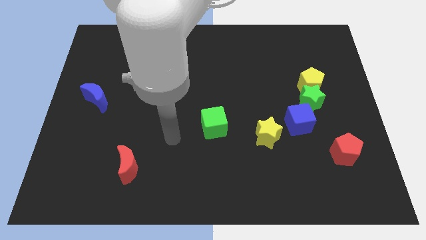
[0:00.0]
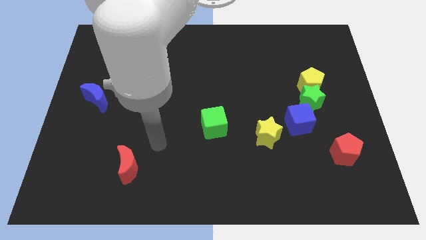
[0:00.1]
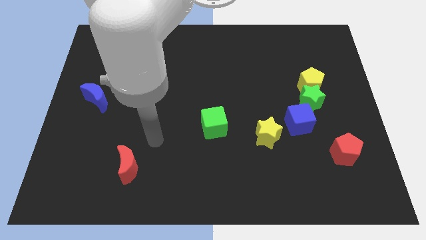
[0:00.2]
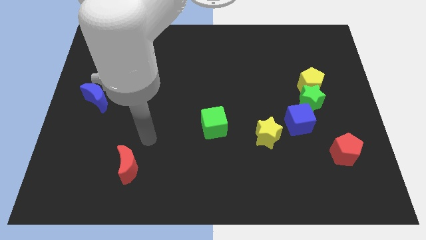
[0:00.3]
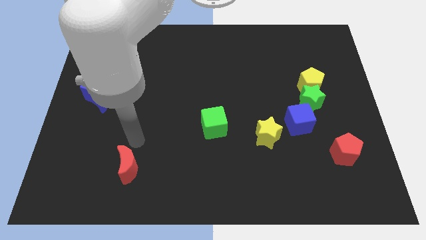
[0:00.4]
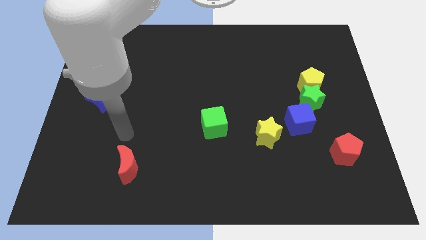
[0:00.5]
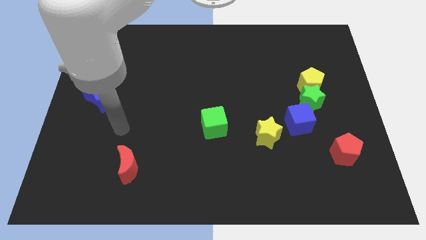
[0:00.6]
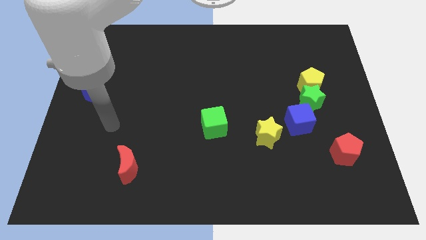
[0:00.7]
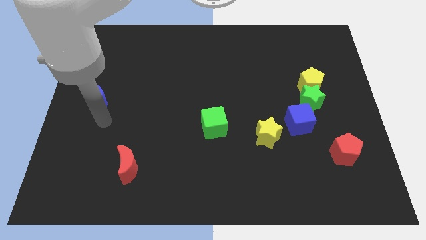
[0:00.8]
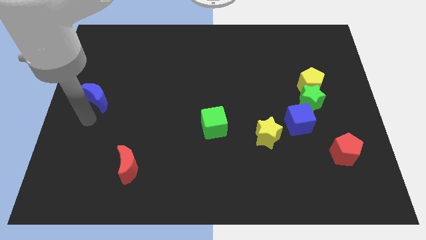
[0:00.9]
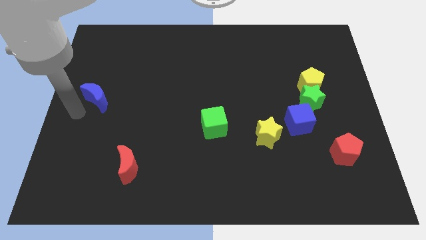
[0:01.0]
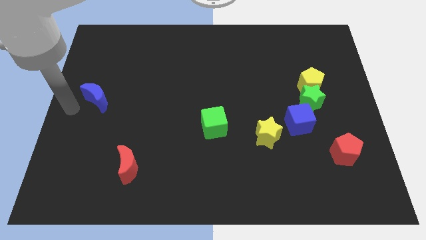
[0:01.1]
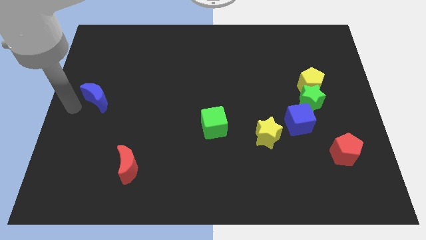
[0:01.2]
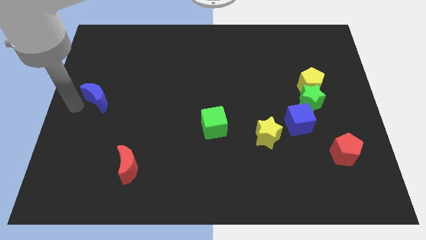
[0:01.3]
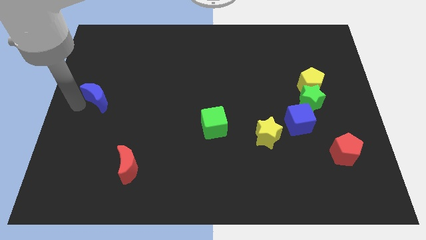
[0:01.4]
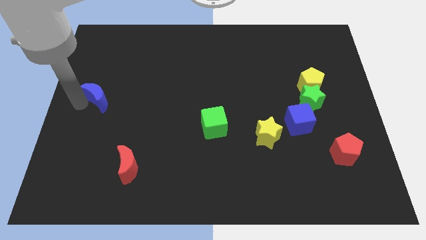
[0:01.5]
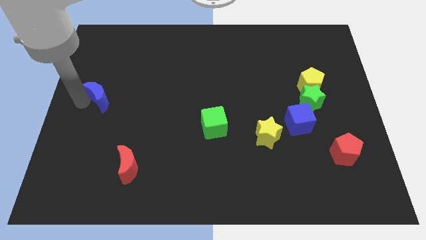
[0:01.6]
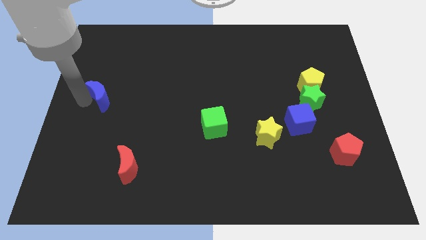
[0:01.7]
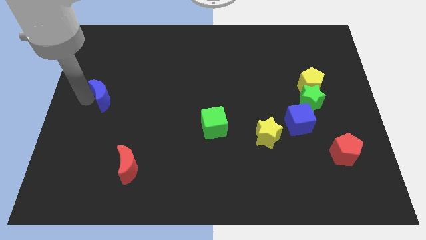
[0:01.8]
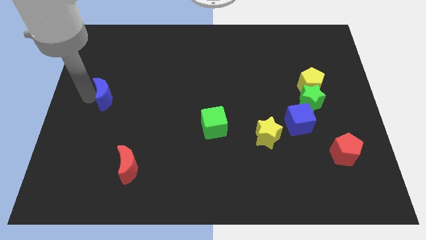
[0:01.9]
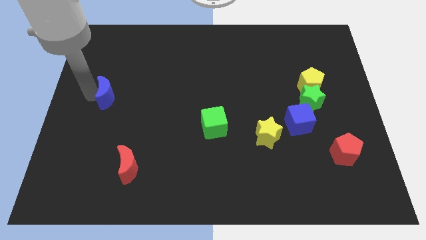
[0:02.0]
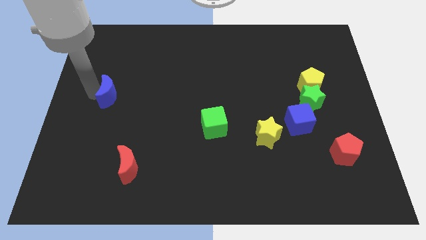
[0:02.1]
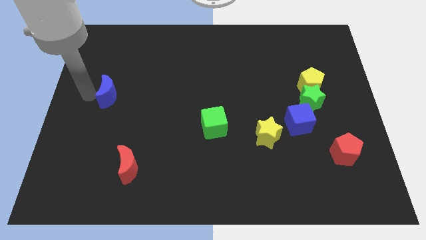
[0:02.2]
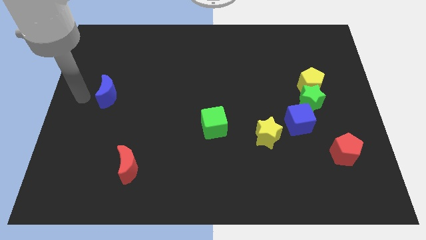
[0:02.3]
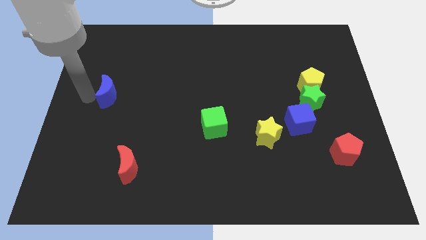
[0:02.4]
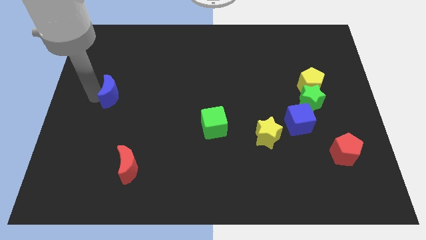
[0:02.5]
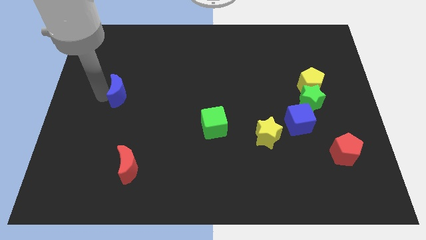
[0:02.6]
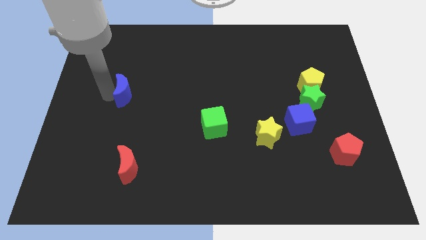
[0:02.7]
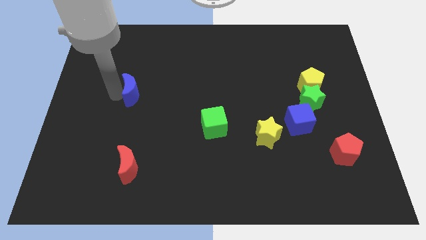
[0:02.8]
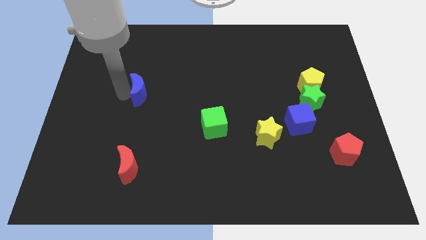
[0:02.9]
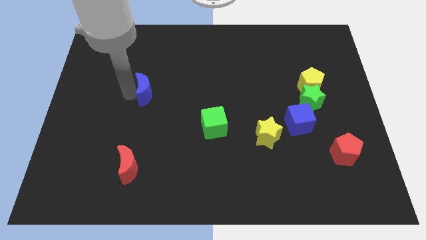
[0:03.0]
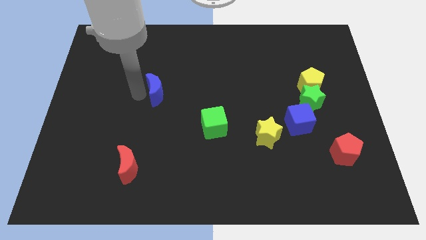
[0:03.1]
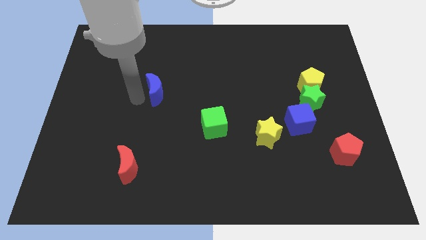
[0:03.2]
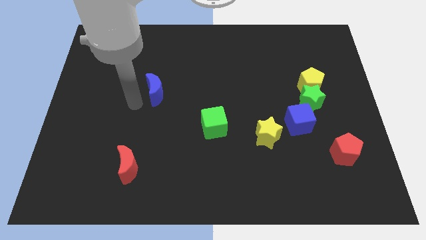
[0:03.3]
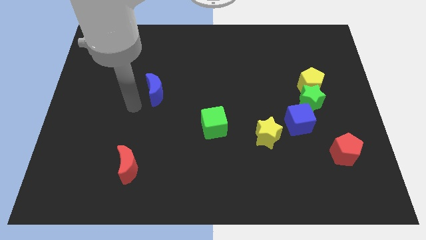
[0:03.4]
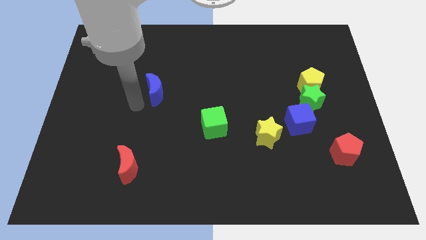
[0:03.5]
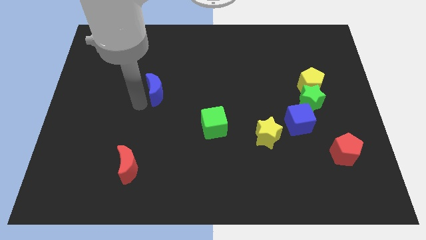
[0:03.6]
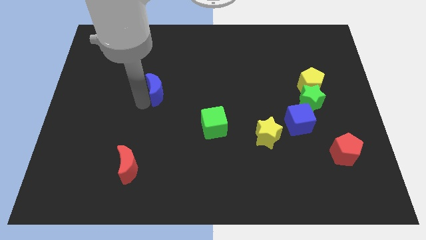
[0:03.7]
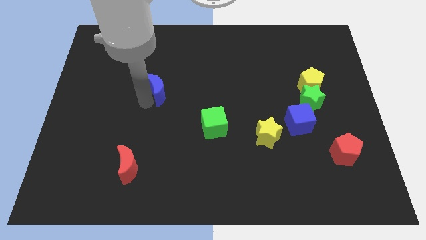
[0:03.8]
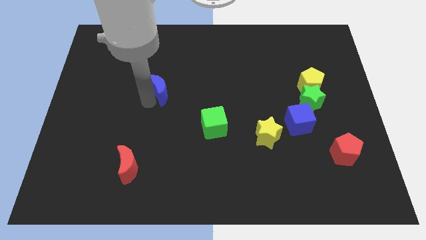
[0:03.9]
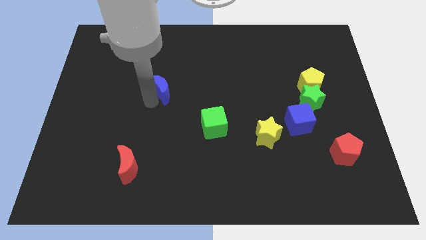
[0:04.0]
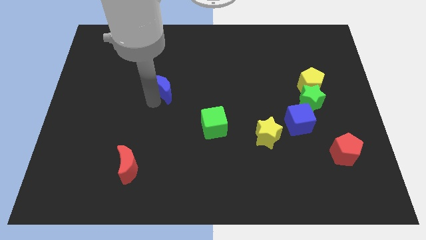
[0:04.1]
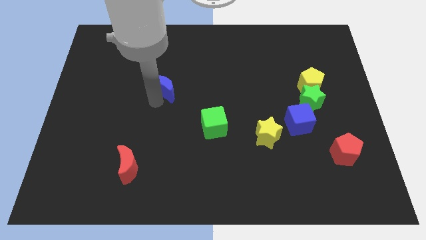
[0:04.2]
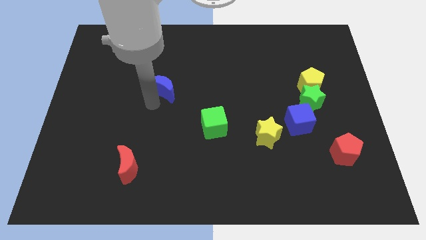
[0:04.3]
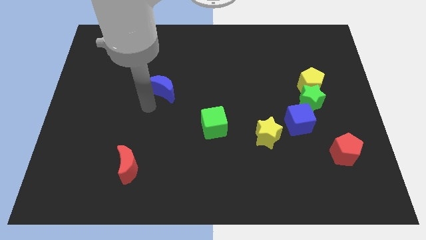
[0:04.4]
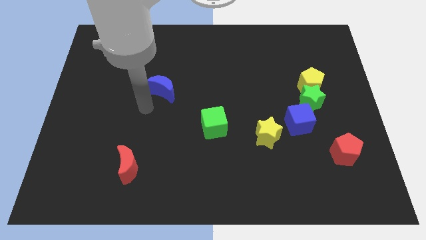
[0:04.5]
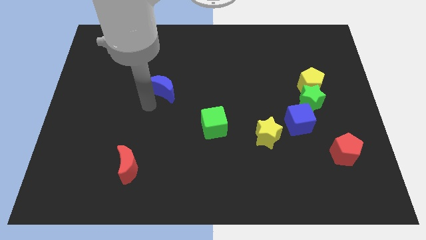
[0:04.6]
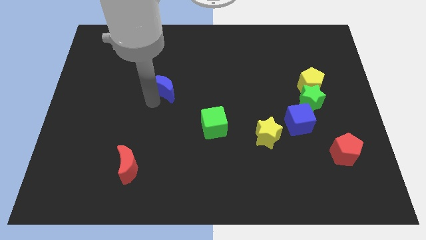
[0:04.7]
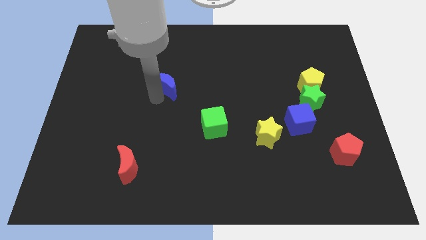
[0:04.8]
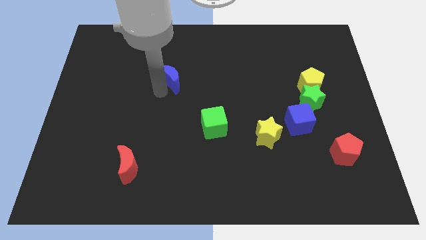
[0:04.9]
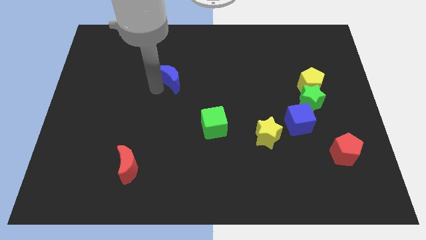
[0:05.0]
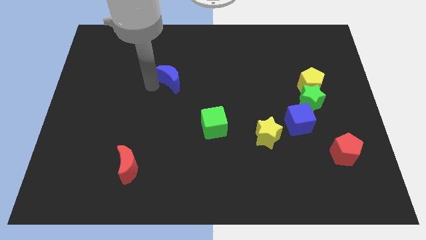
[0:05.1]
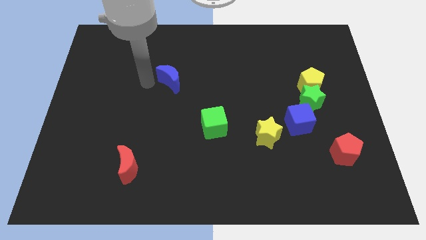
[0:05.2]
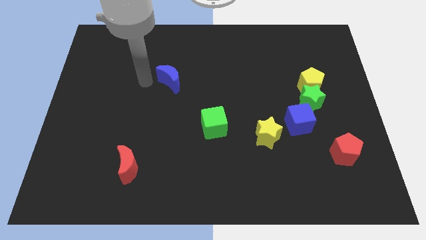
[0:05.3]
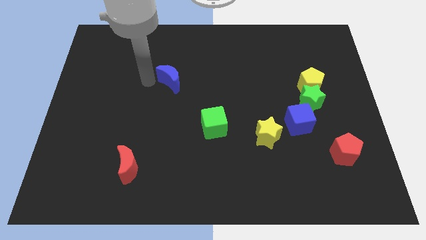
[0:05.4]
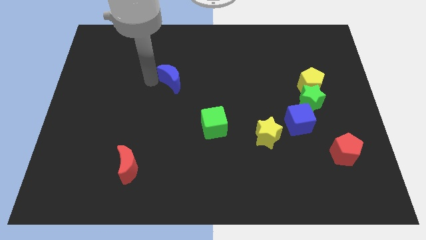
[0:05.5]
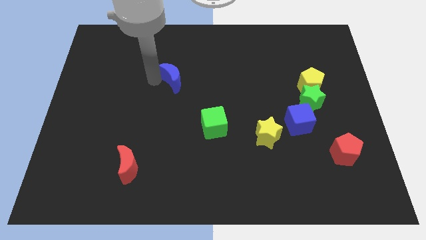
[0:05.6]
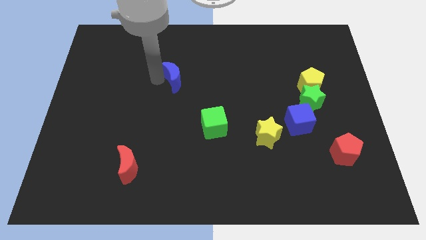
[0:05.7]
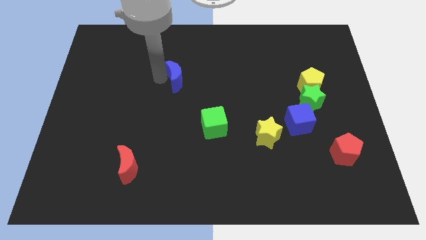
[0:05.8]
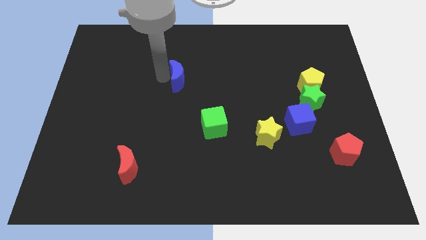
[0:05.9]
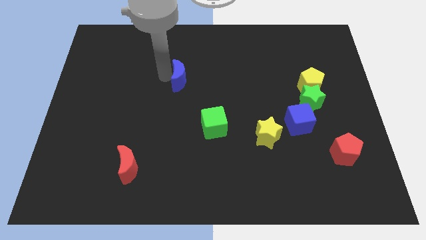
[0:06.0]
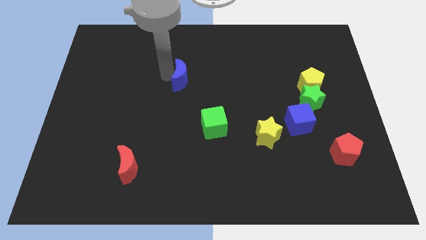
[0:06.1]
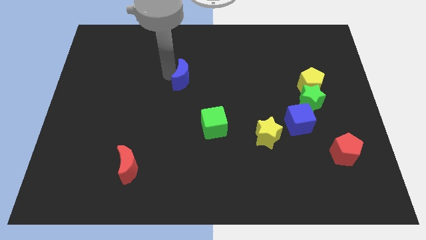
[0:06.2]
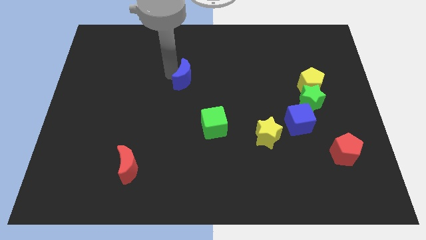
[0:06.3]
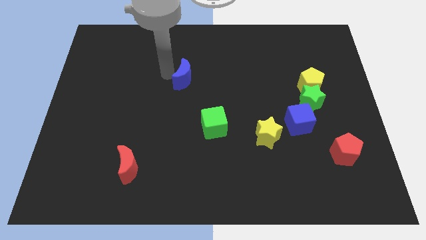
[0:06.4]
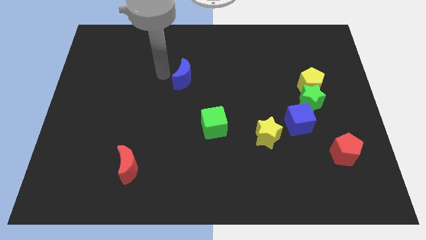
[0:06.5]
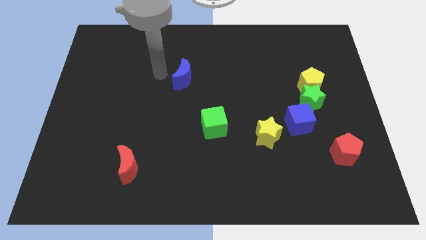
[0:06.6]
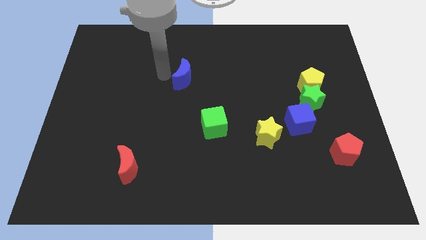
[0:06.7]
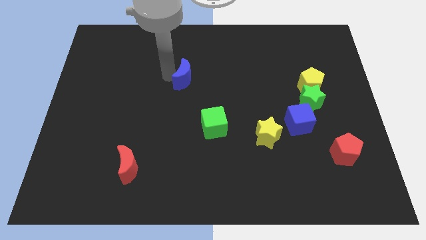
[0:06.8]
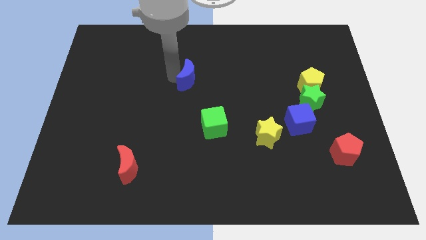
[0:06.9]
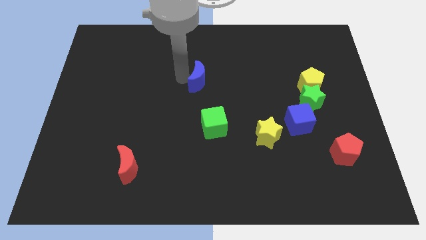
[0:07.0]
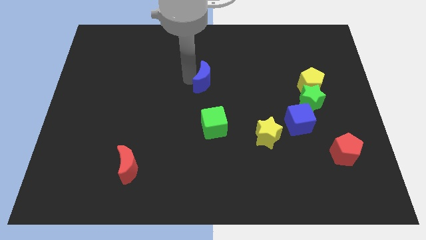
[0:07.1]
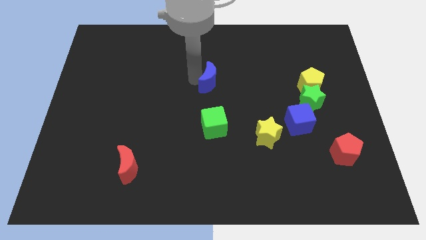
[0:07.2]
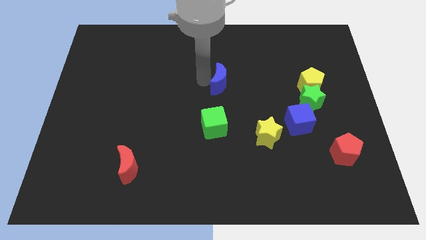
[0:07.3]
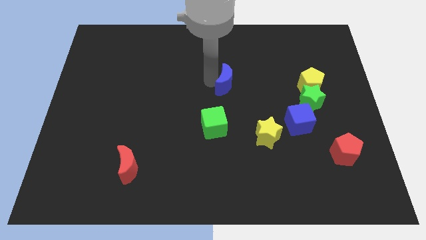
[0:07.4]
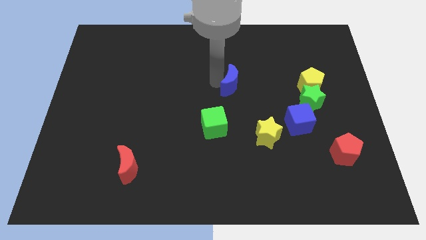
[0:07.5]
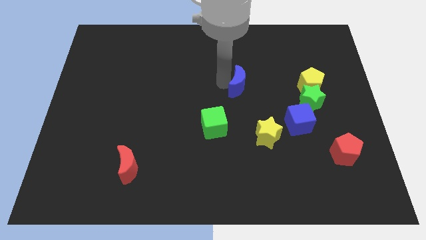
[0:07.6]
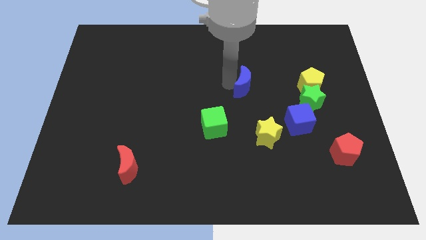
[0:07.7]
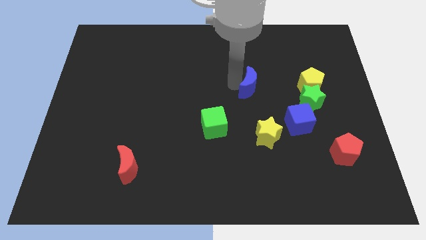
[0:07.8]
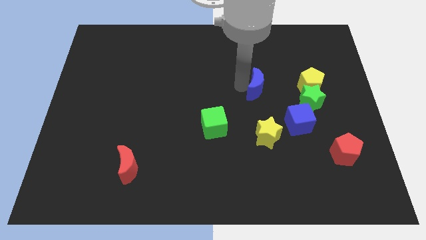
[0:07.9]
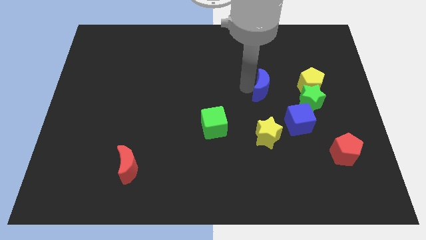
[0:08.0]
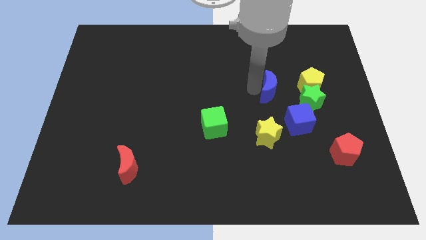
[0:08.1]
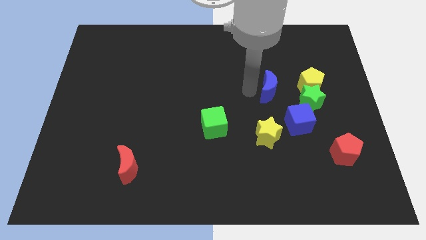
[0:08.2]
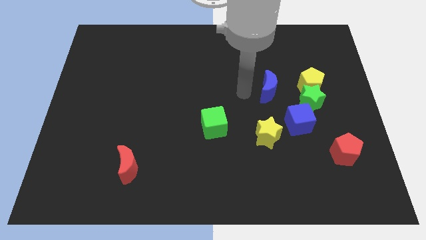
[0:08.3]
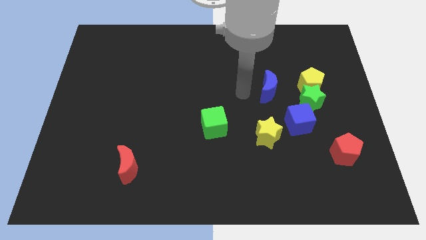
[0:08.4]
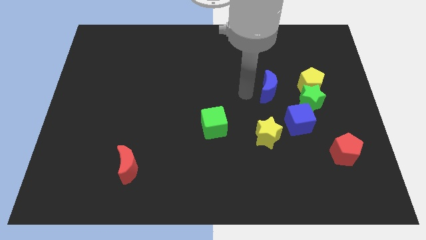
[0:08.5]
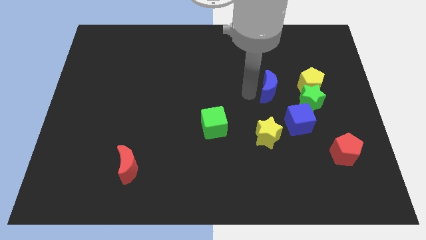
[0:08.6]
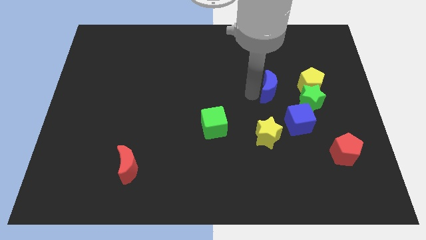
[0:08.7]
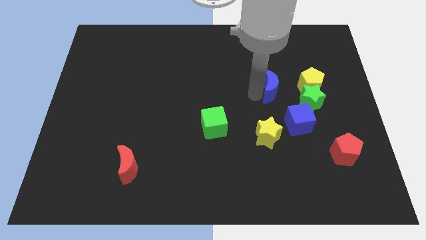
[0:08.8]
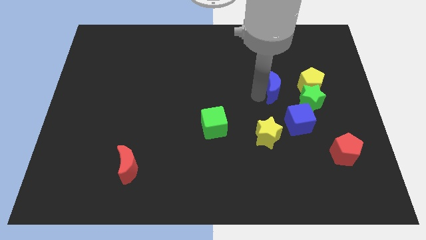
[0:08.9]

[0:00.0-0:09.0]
move the blue moon to the top of the blue cube
